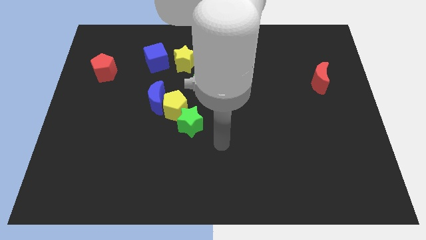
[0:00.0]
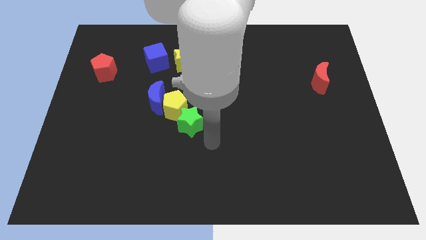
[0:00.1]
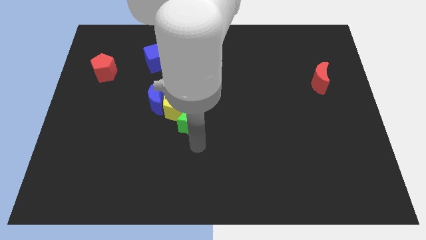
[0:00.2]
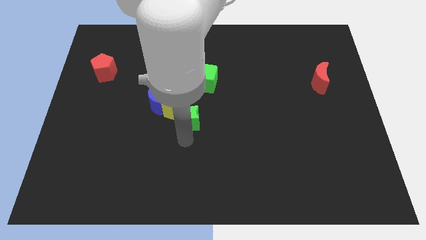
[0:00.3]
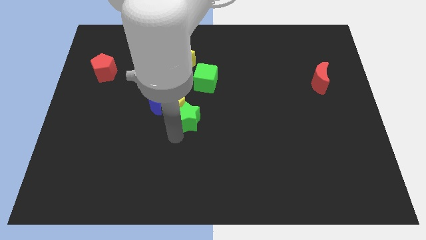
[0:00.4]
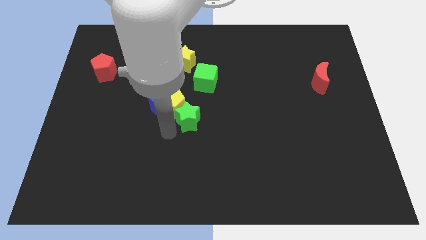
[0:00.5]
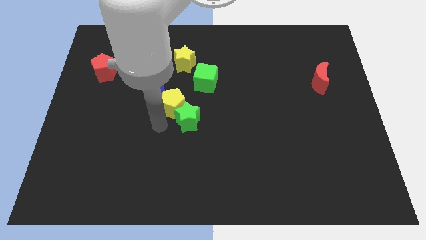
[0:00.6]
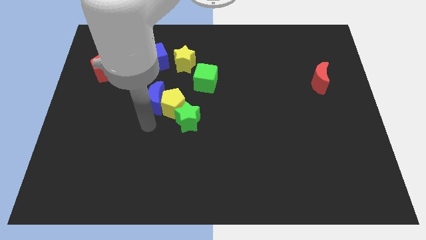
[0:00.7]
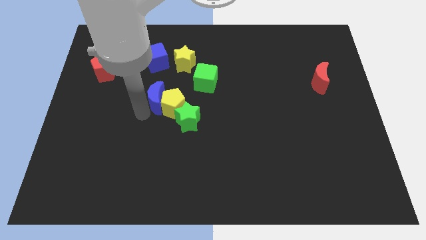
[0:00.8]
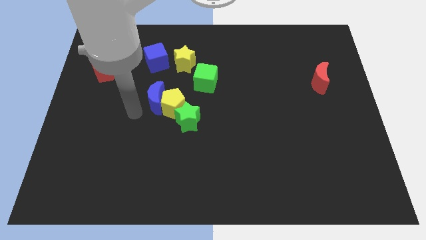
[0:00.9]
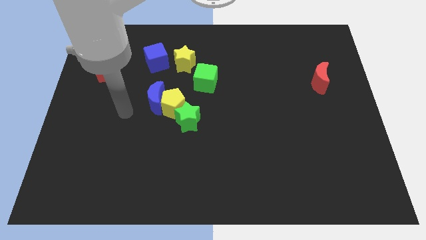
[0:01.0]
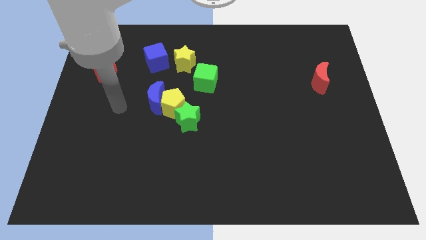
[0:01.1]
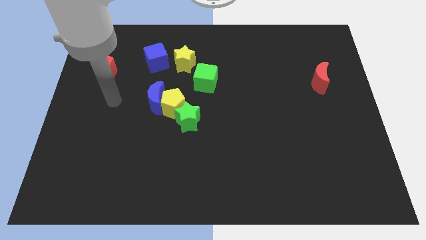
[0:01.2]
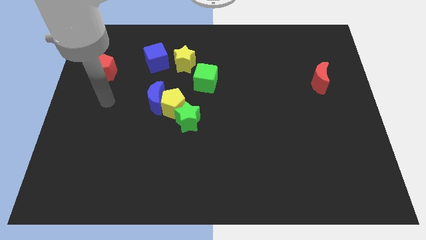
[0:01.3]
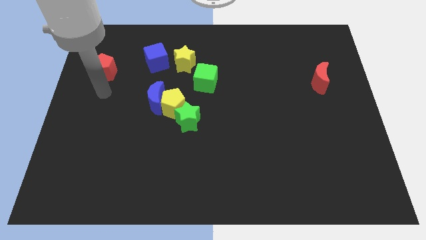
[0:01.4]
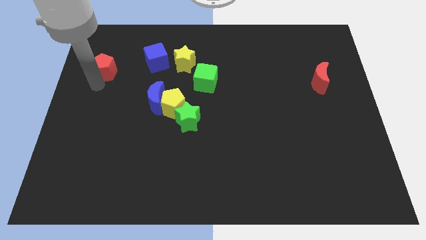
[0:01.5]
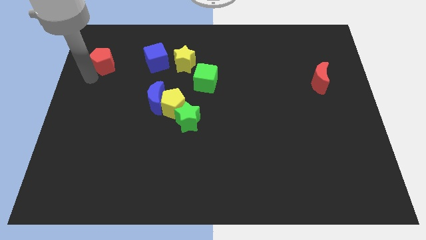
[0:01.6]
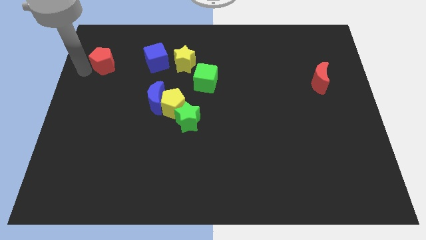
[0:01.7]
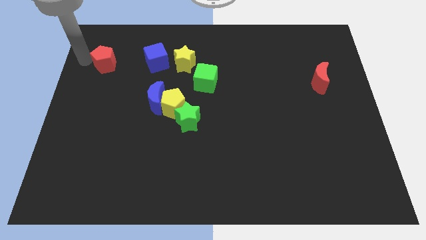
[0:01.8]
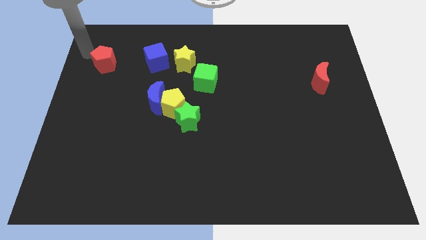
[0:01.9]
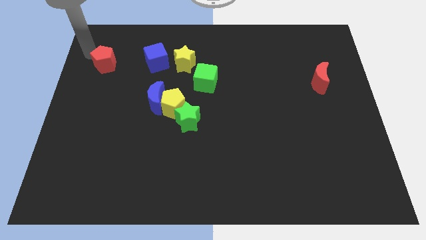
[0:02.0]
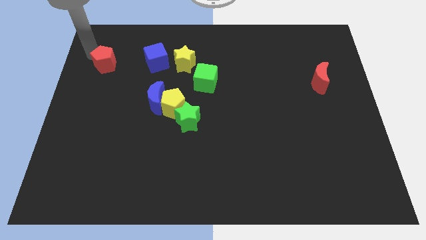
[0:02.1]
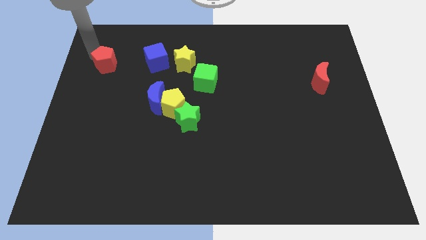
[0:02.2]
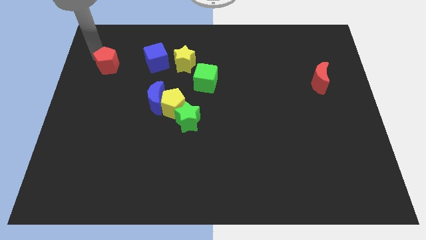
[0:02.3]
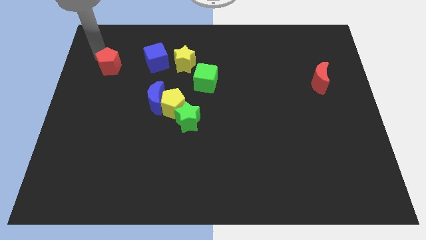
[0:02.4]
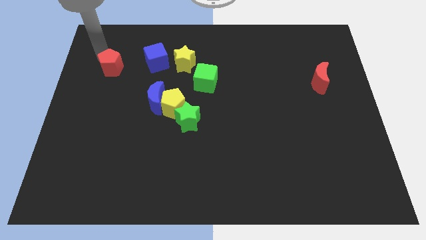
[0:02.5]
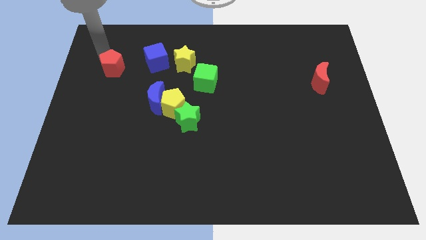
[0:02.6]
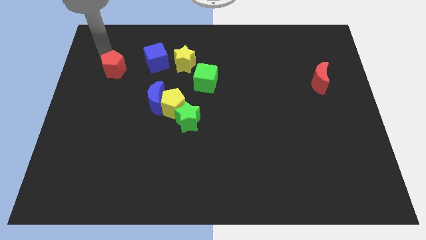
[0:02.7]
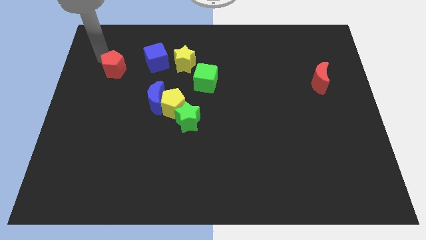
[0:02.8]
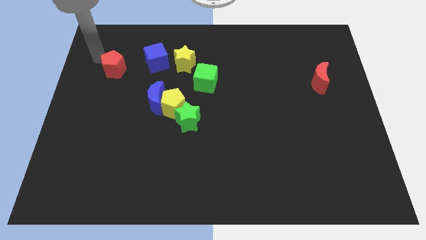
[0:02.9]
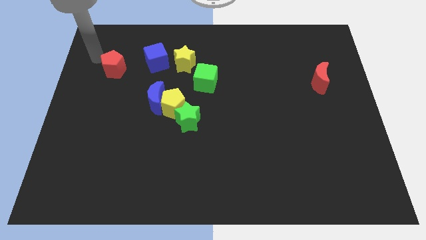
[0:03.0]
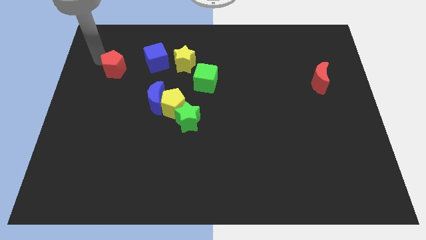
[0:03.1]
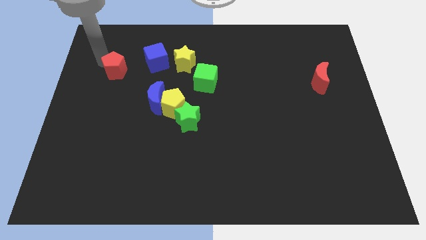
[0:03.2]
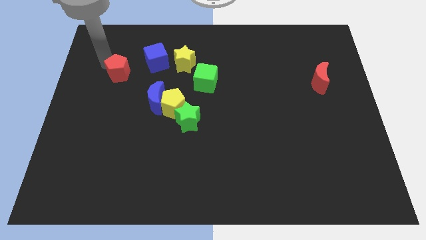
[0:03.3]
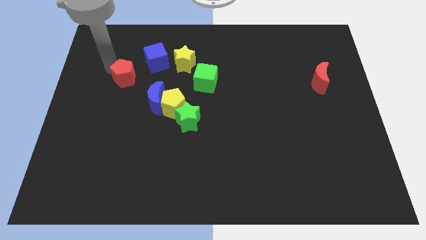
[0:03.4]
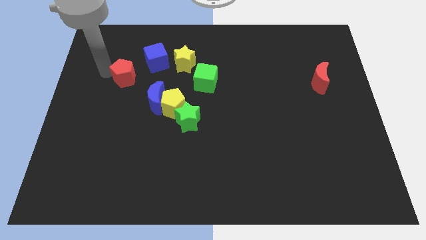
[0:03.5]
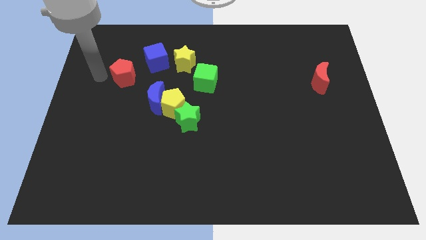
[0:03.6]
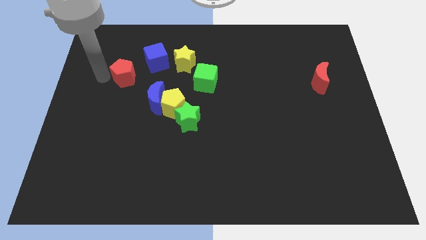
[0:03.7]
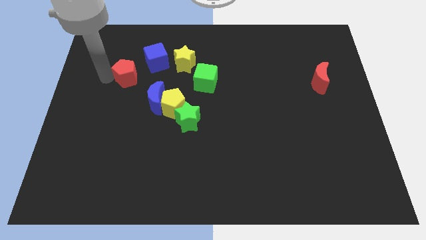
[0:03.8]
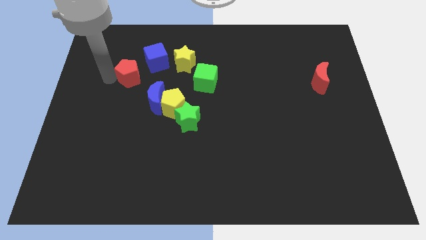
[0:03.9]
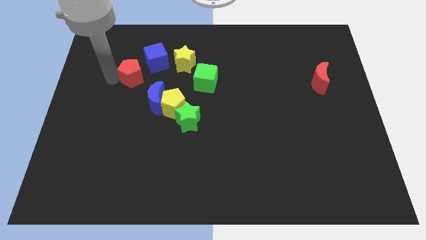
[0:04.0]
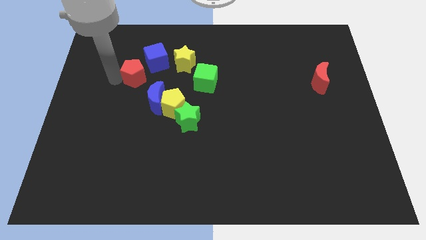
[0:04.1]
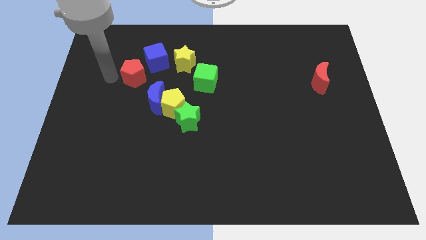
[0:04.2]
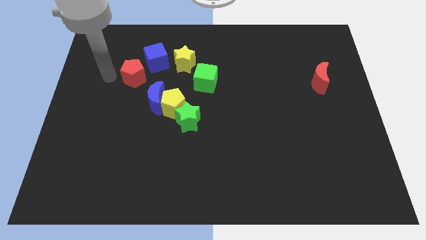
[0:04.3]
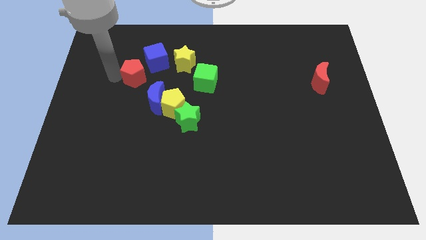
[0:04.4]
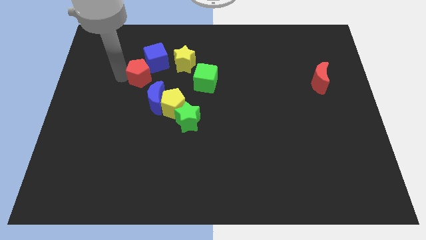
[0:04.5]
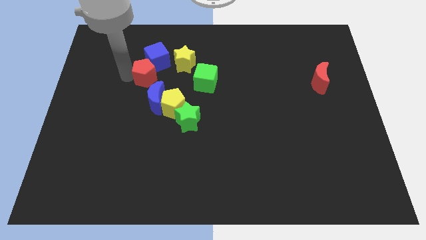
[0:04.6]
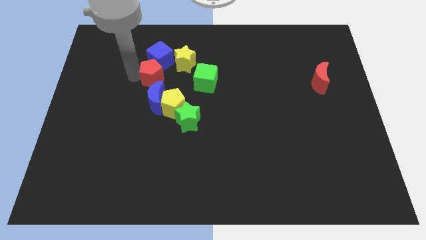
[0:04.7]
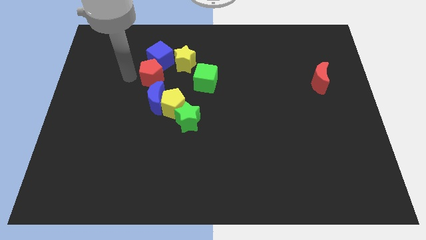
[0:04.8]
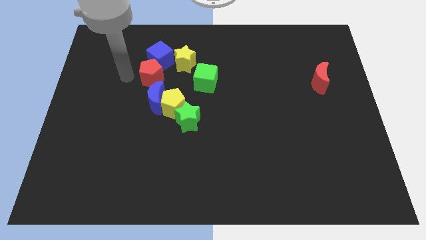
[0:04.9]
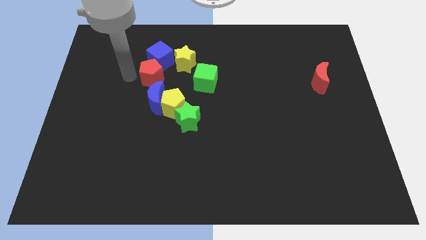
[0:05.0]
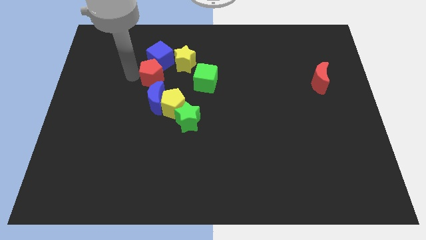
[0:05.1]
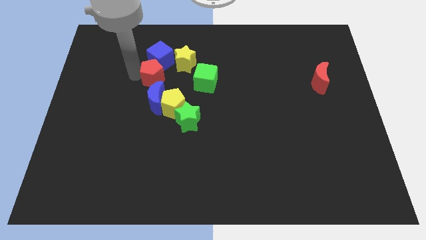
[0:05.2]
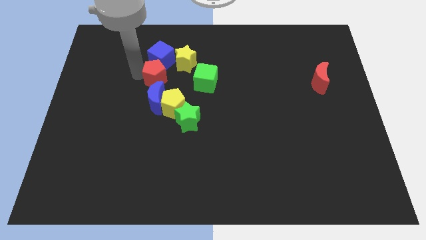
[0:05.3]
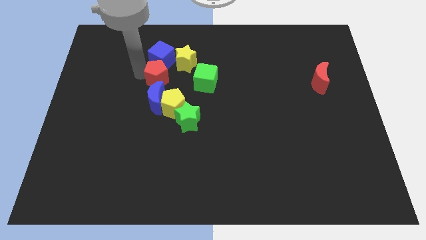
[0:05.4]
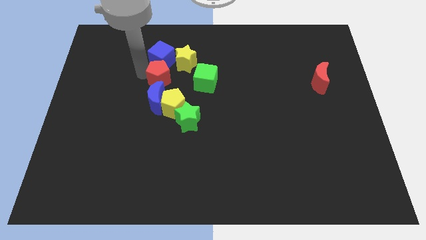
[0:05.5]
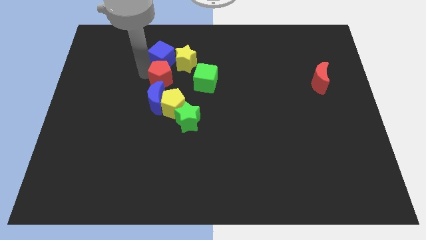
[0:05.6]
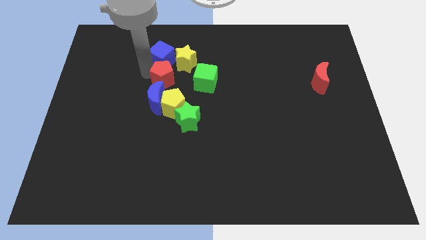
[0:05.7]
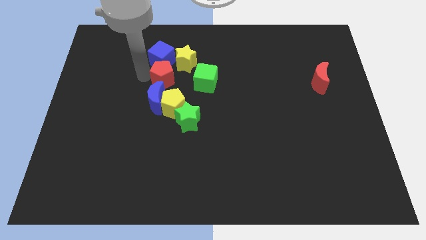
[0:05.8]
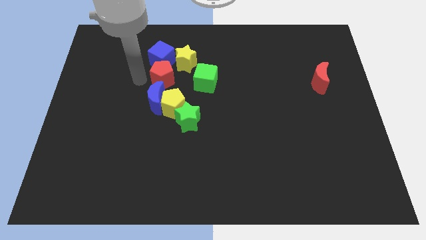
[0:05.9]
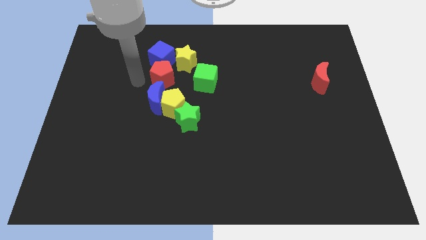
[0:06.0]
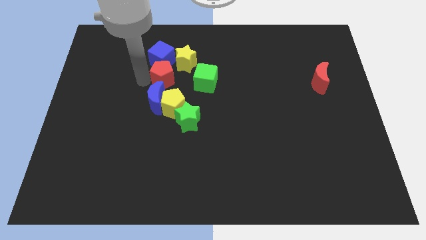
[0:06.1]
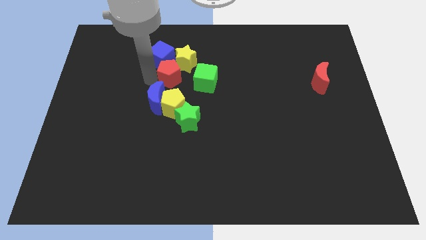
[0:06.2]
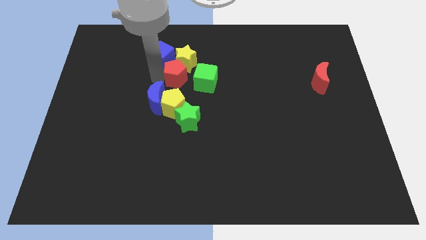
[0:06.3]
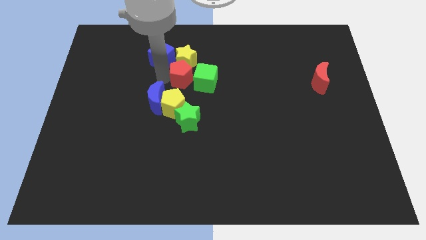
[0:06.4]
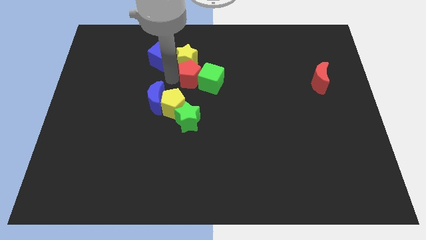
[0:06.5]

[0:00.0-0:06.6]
move the red pentagon to the right

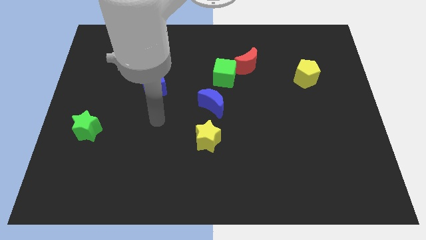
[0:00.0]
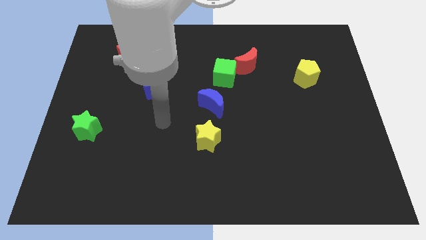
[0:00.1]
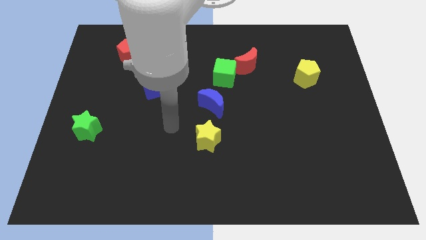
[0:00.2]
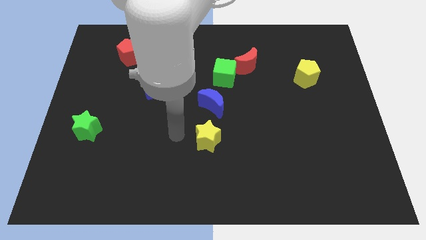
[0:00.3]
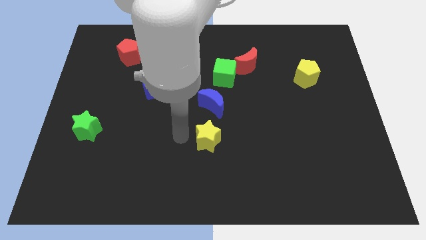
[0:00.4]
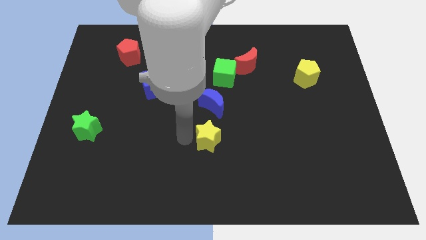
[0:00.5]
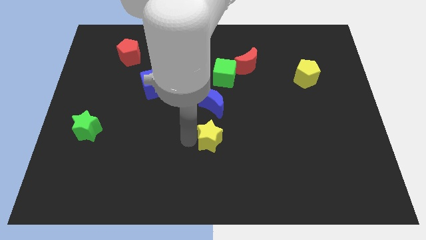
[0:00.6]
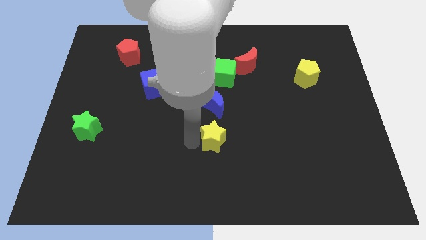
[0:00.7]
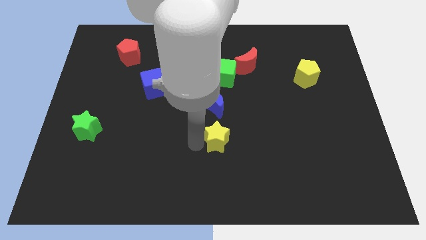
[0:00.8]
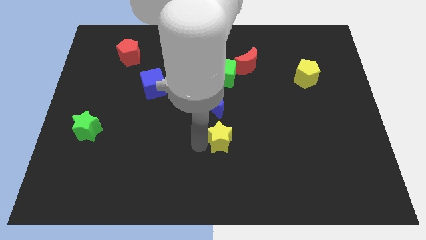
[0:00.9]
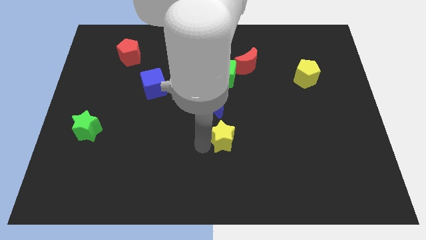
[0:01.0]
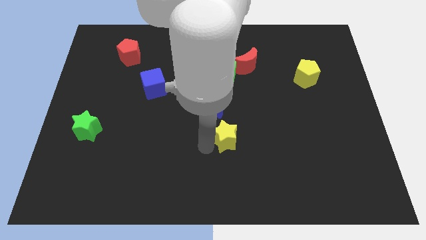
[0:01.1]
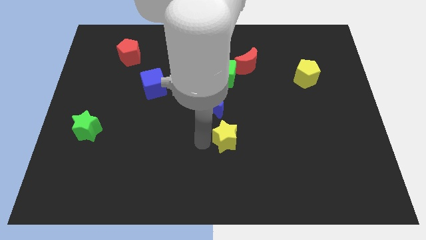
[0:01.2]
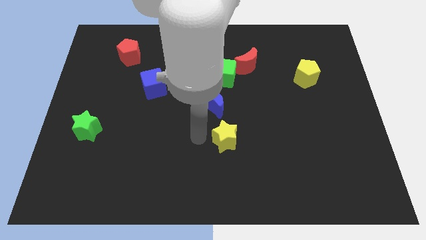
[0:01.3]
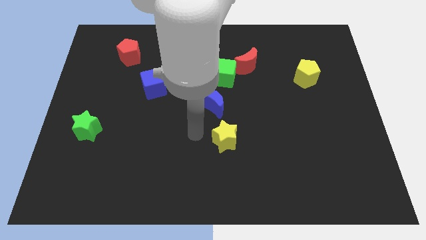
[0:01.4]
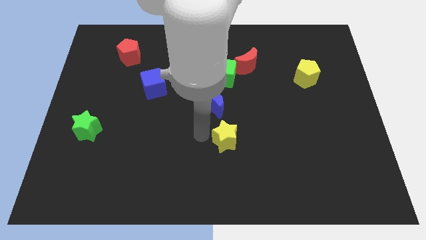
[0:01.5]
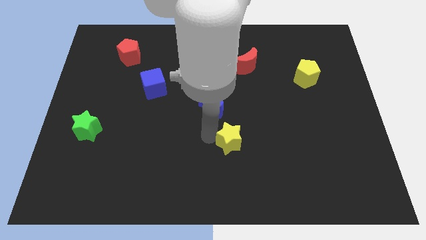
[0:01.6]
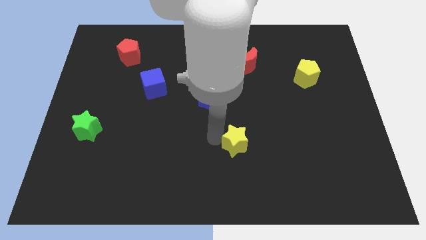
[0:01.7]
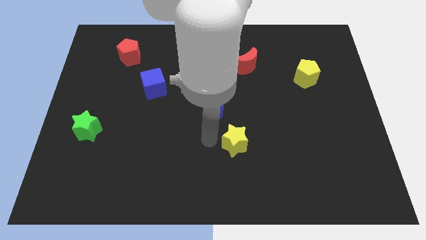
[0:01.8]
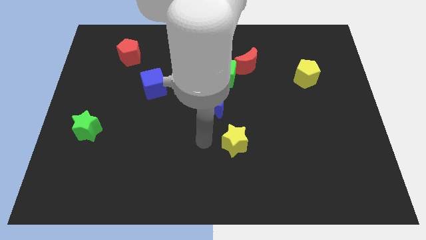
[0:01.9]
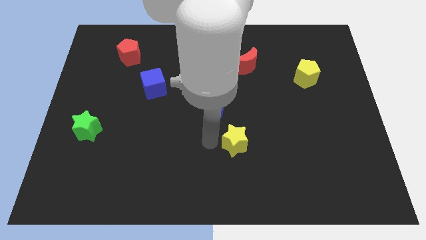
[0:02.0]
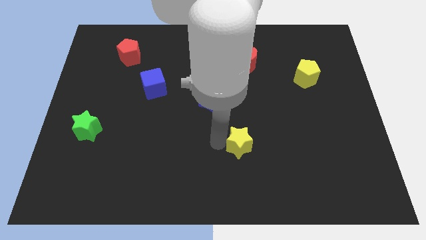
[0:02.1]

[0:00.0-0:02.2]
move the yellow star somewhat right
